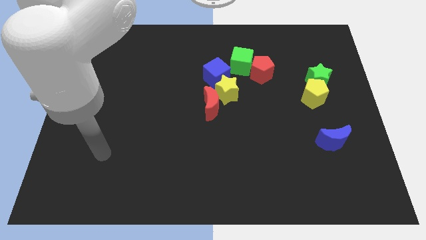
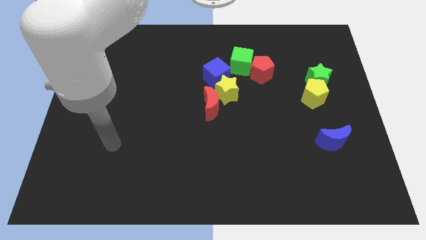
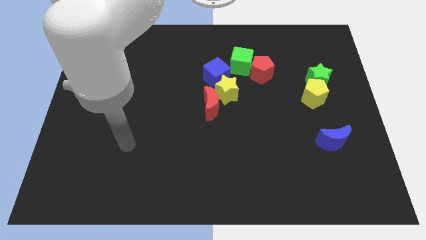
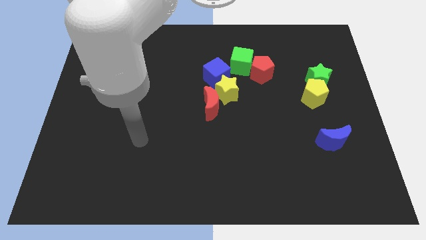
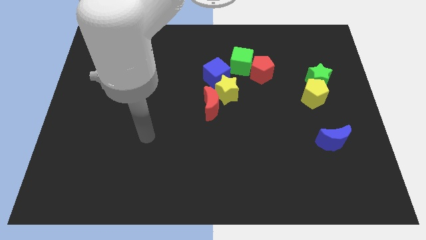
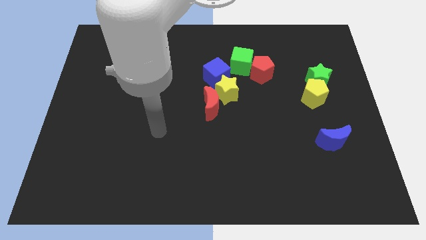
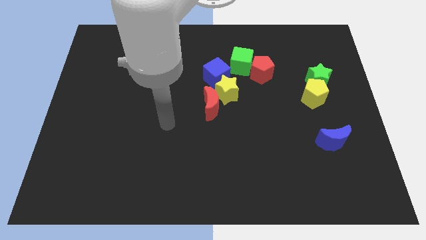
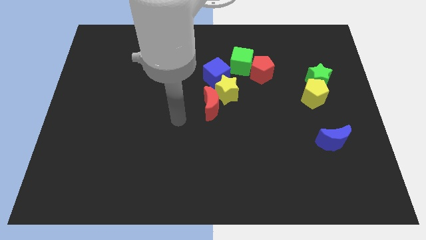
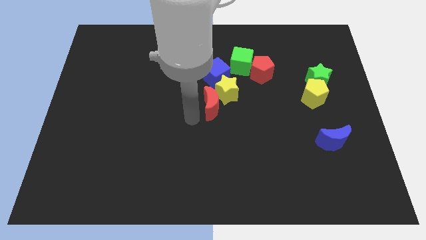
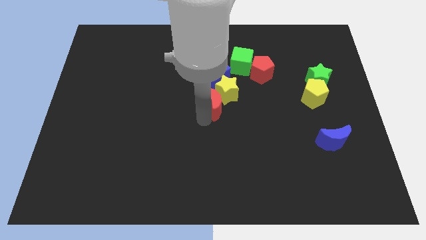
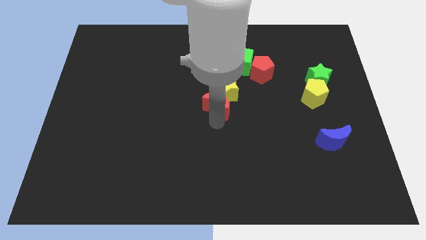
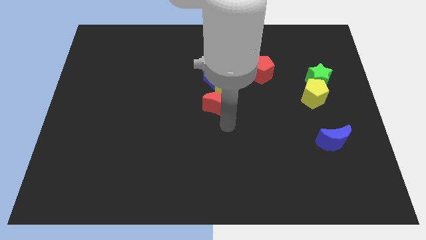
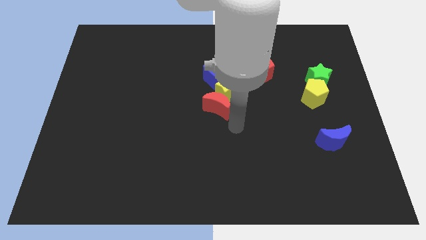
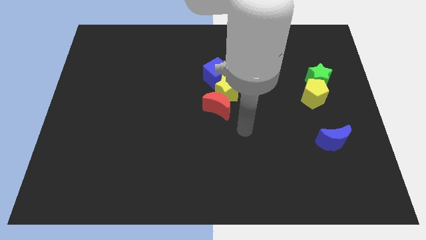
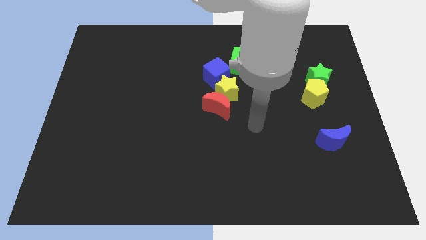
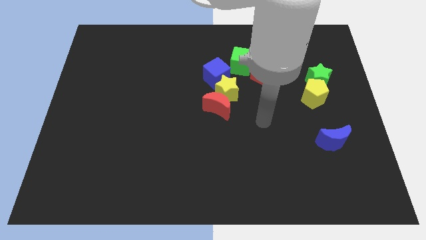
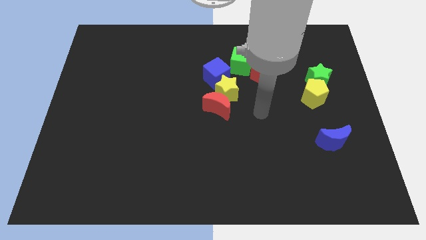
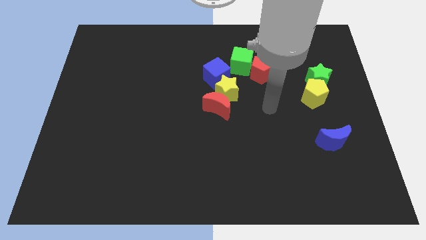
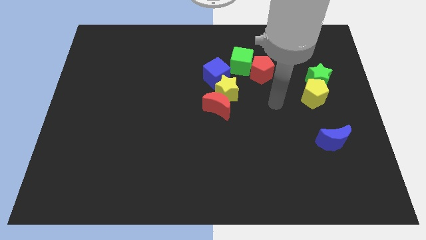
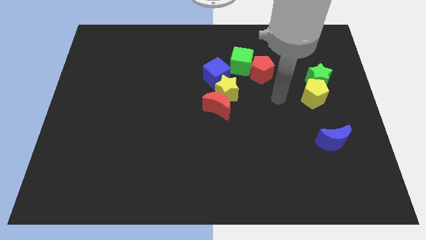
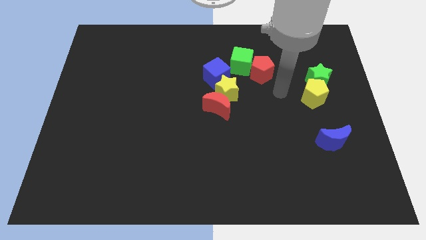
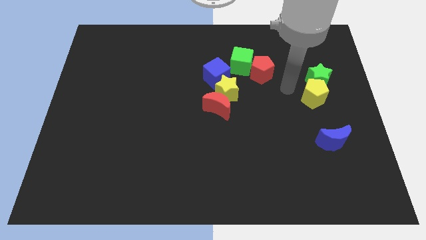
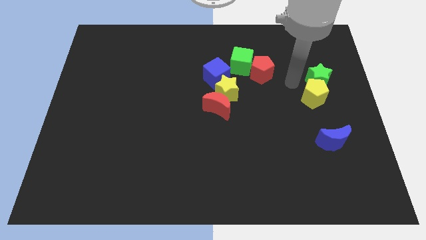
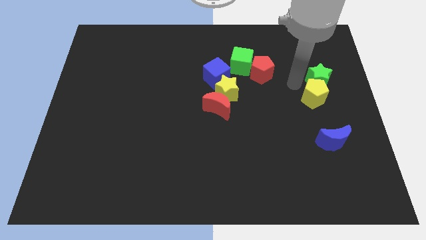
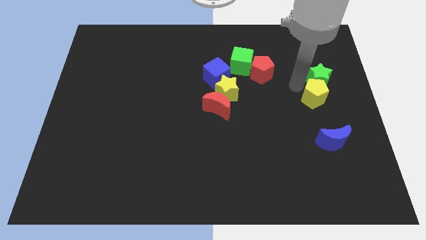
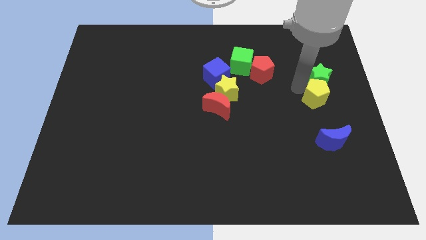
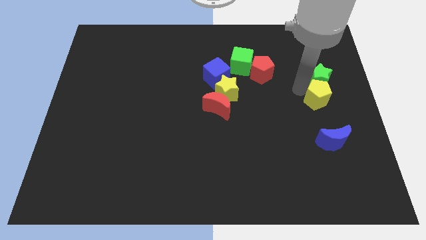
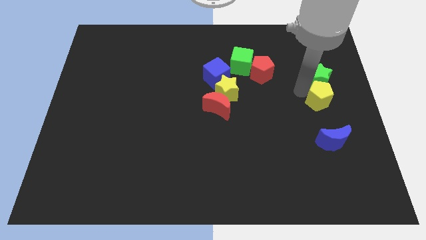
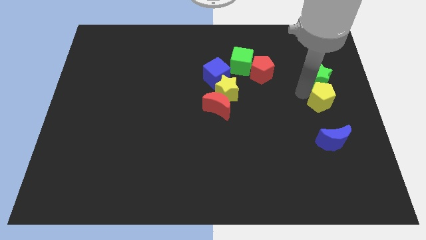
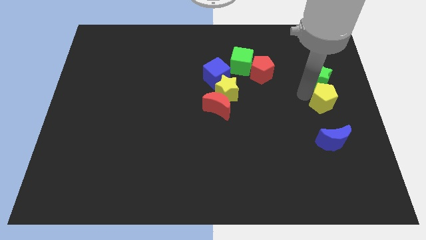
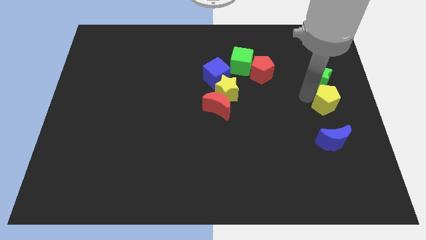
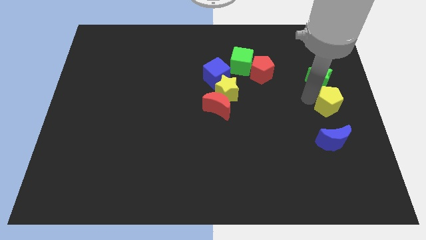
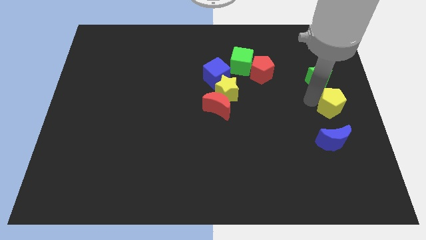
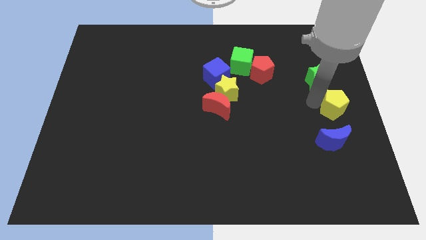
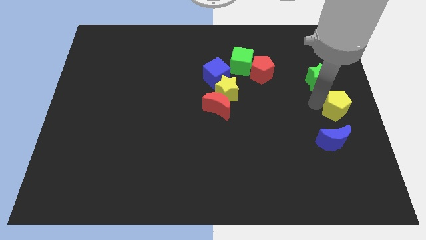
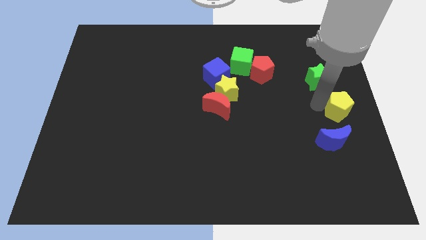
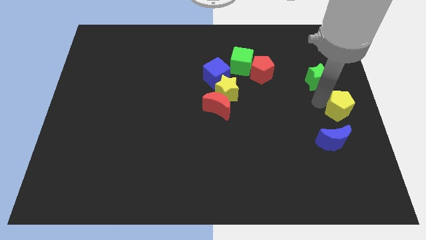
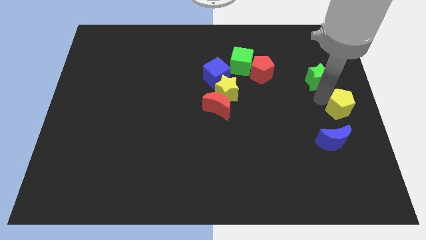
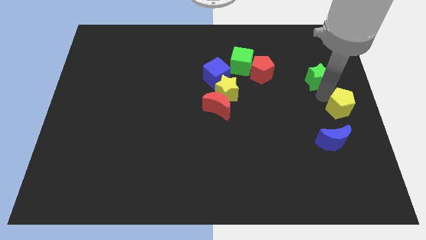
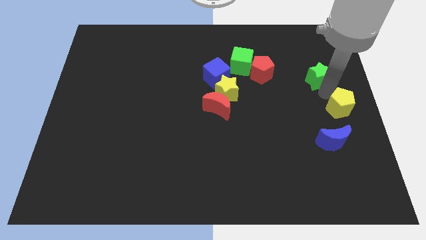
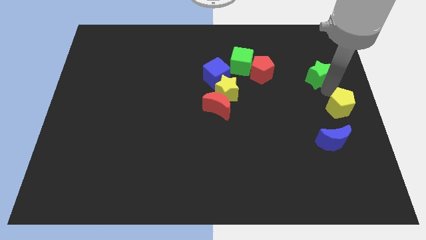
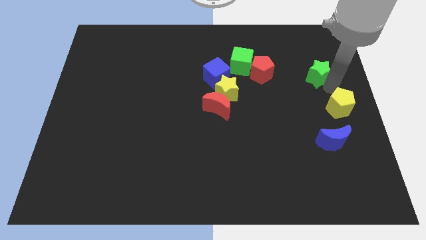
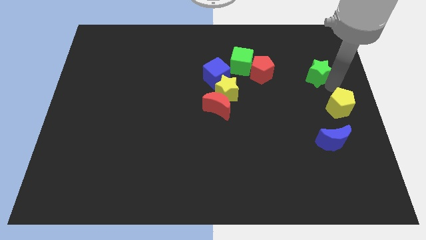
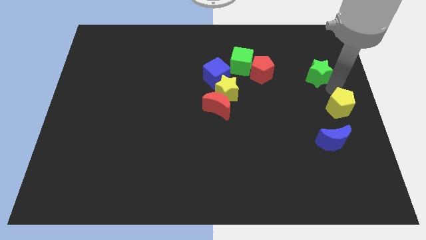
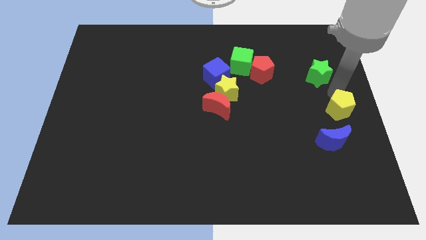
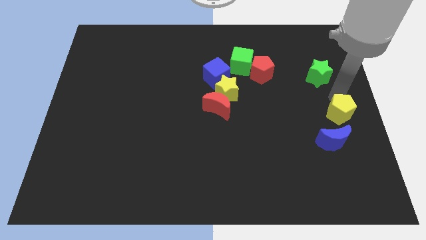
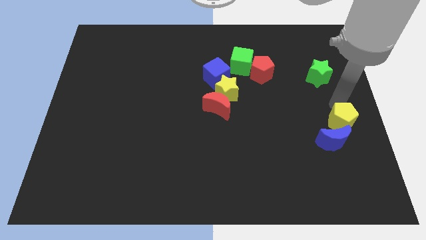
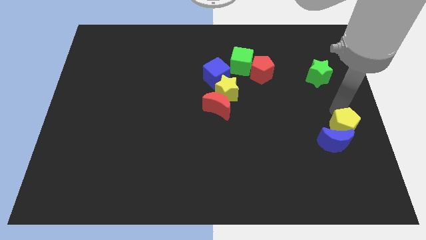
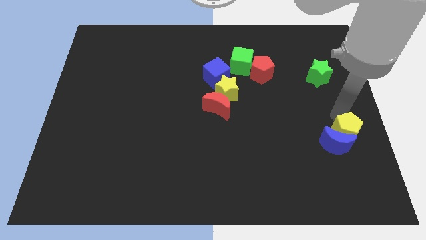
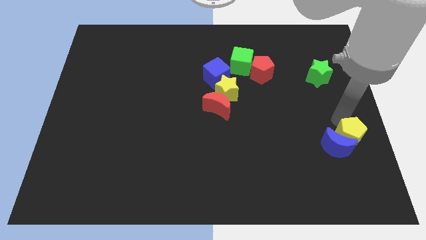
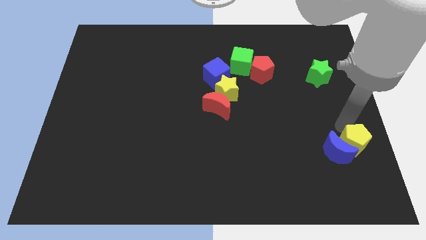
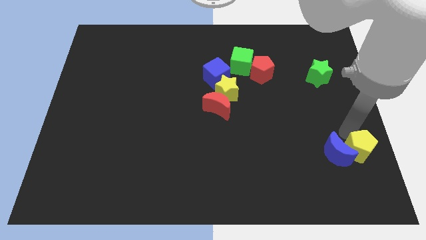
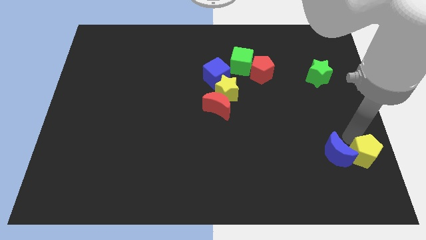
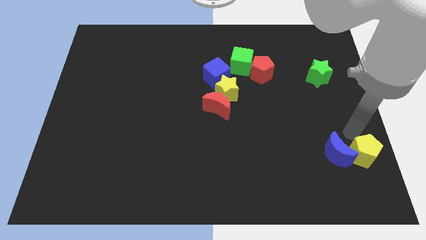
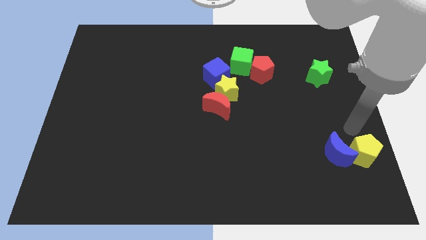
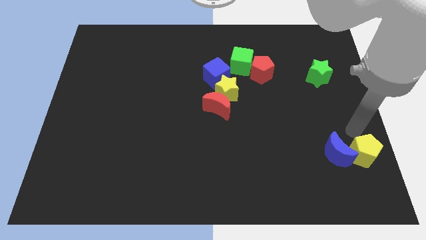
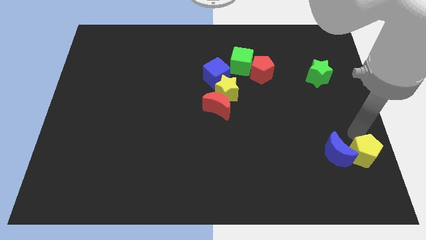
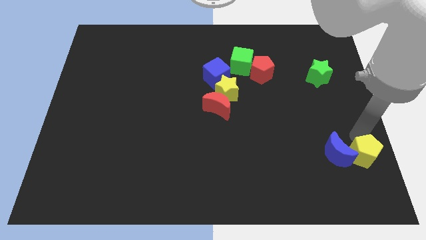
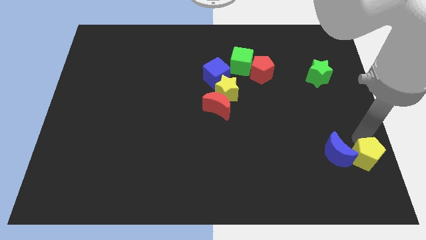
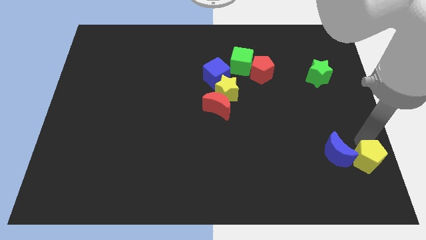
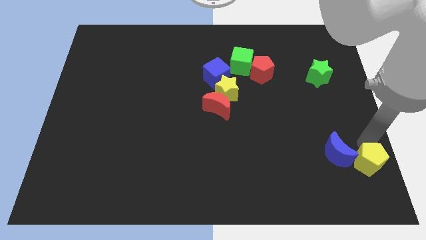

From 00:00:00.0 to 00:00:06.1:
move the yellow pentagon to the lower right corner

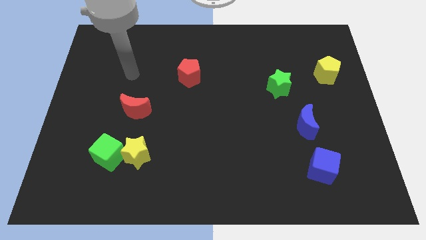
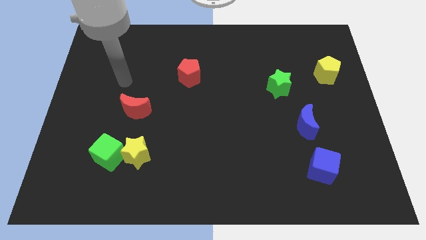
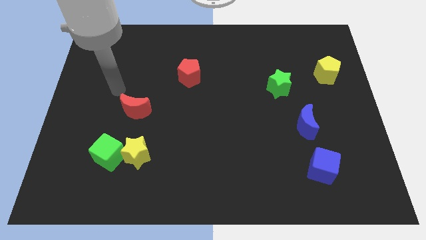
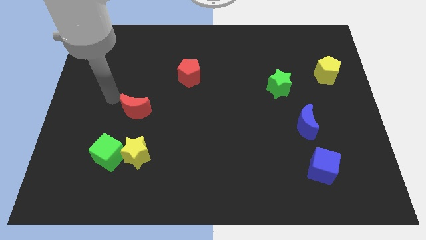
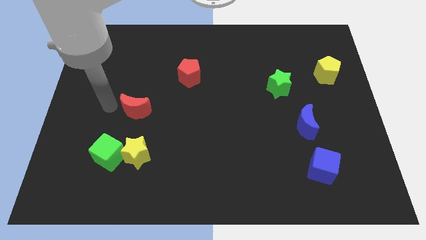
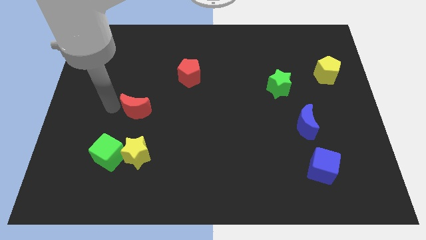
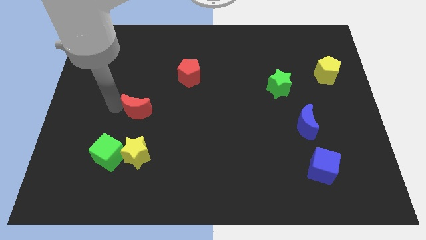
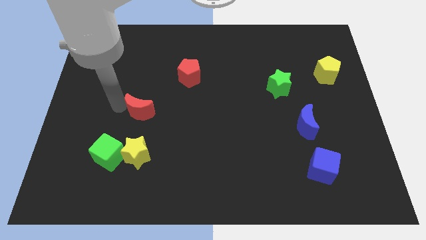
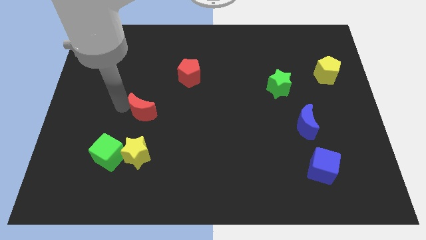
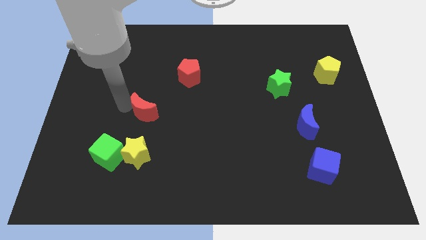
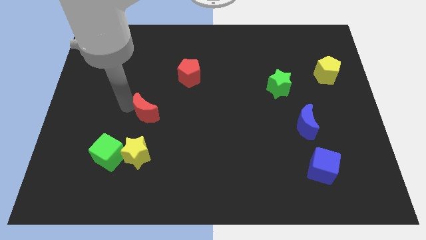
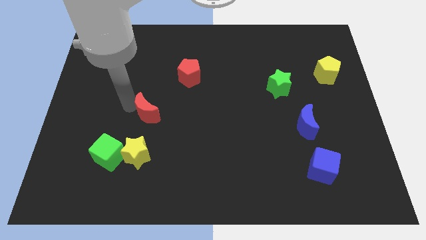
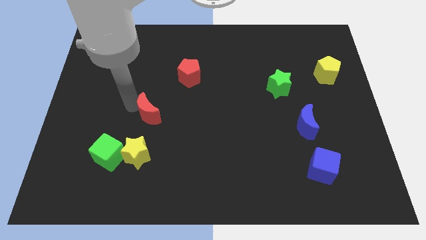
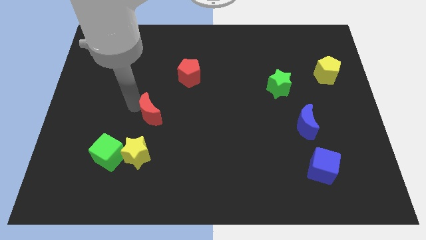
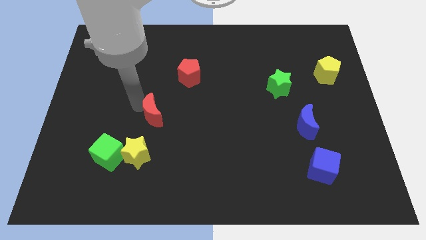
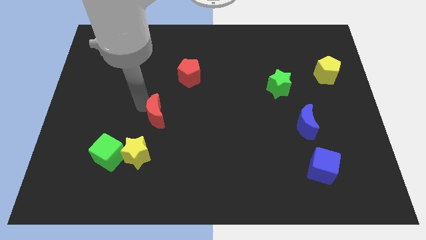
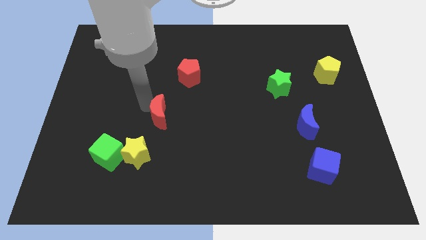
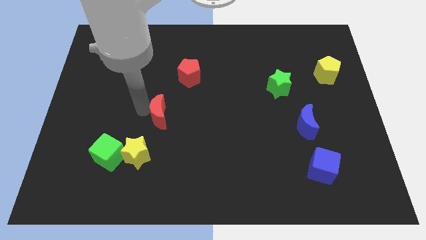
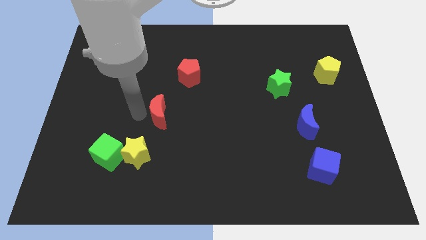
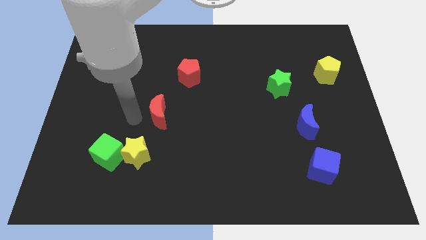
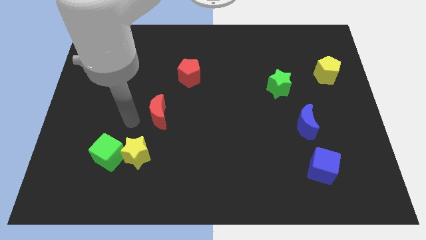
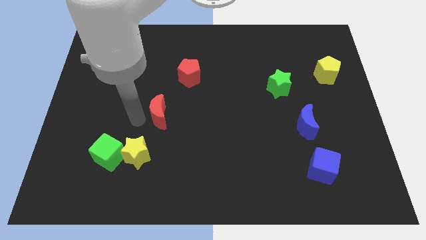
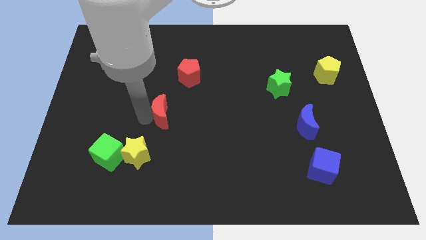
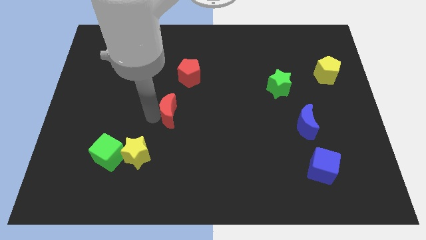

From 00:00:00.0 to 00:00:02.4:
slide the red moon to the middle of the board
